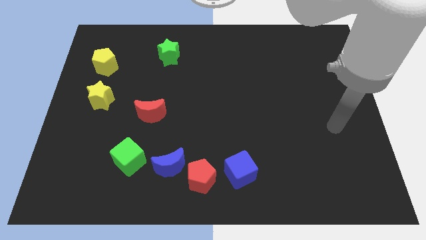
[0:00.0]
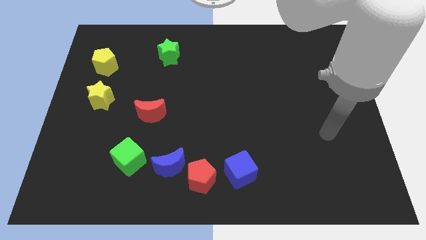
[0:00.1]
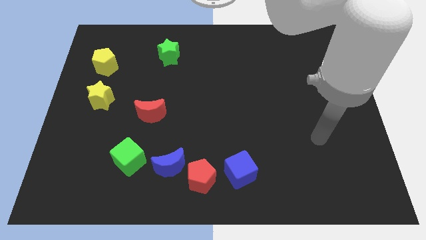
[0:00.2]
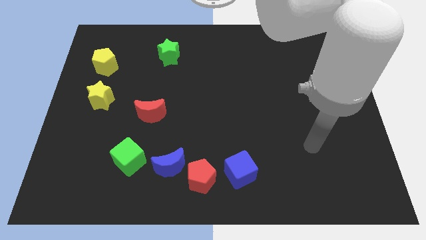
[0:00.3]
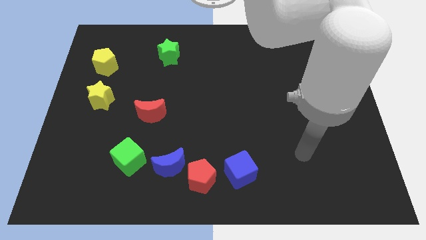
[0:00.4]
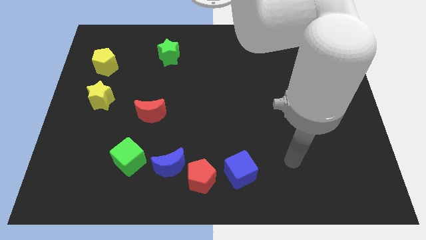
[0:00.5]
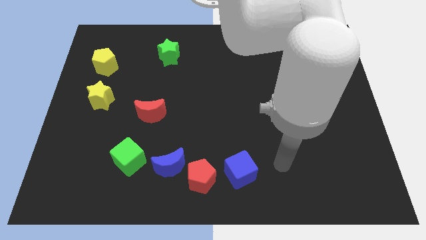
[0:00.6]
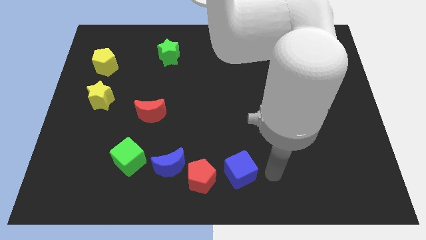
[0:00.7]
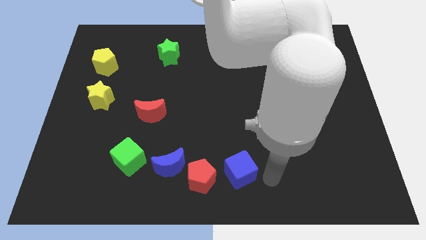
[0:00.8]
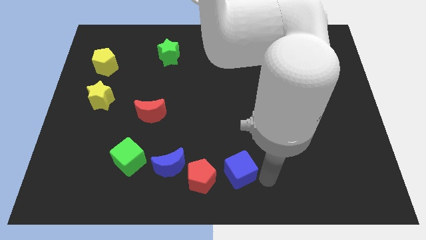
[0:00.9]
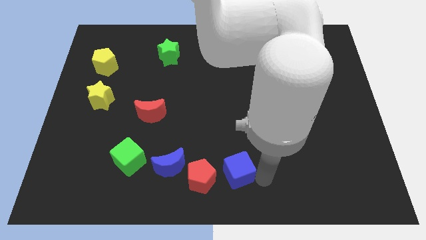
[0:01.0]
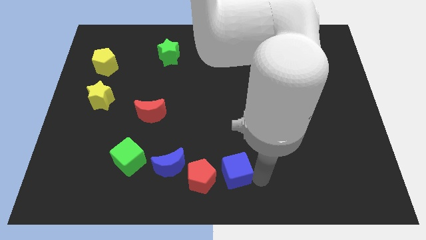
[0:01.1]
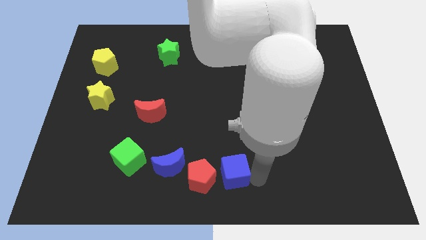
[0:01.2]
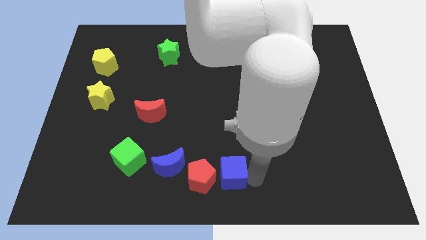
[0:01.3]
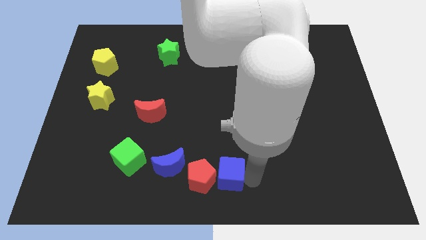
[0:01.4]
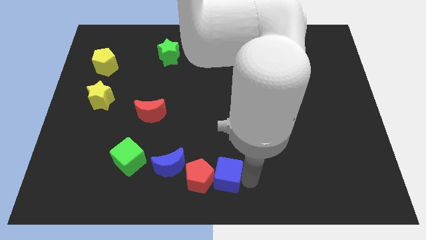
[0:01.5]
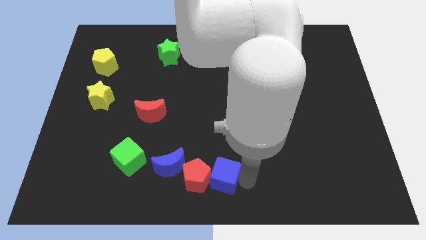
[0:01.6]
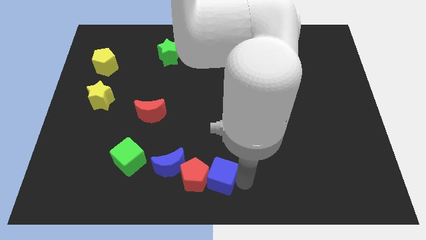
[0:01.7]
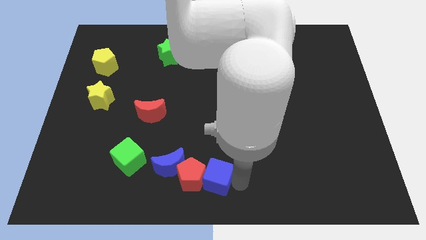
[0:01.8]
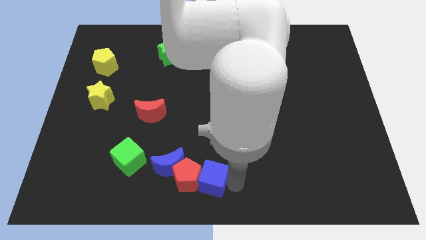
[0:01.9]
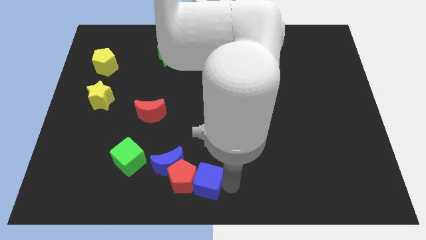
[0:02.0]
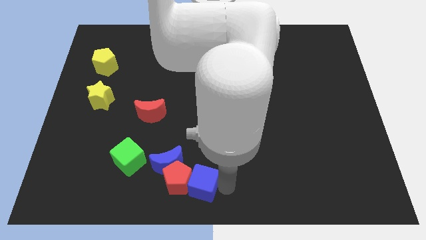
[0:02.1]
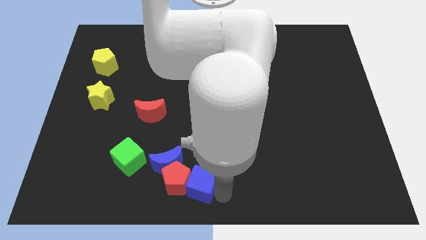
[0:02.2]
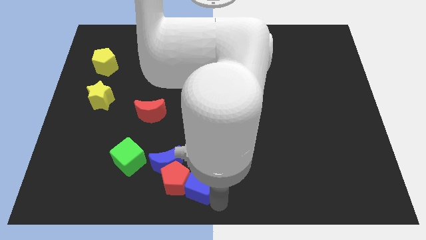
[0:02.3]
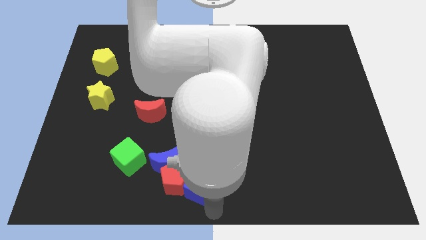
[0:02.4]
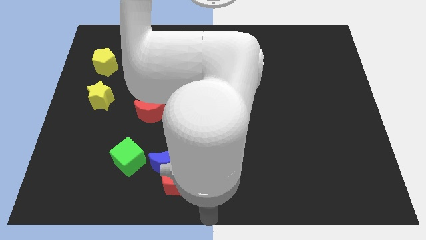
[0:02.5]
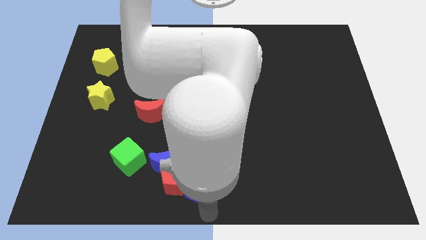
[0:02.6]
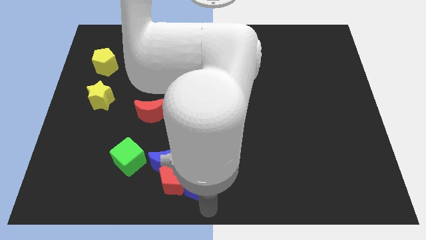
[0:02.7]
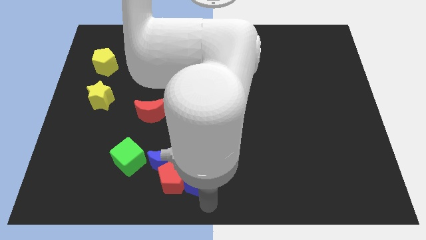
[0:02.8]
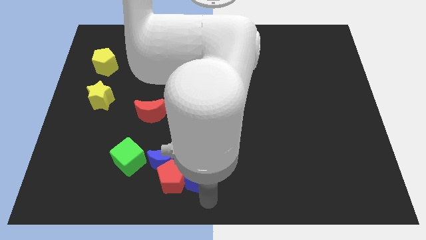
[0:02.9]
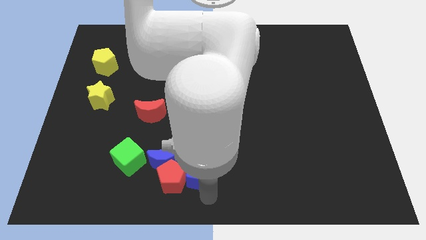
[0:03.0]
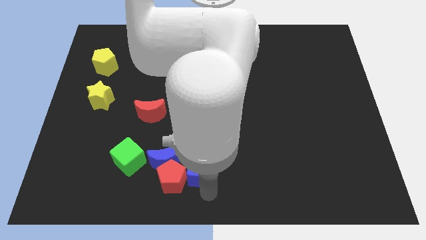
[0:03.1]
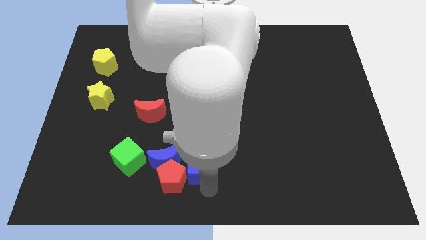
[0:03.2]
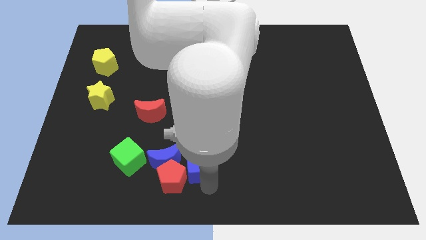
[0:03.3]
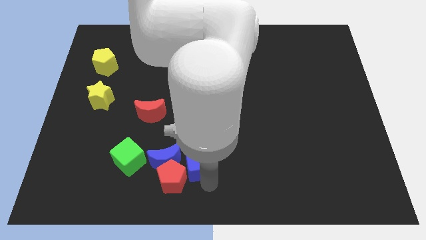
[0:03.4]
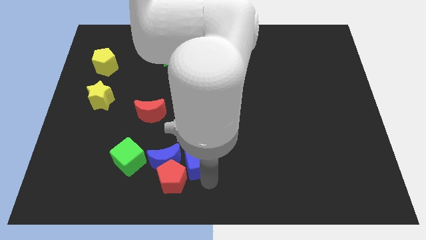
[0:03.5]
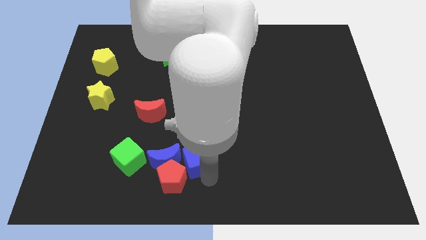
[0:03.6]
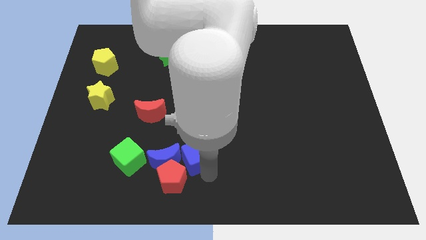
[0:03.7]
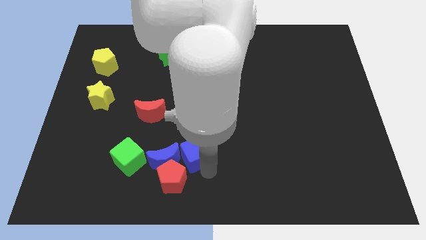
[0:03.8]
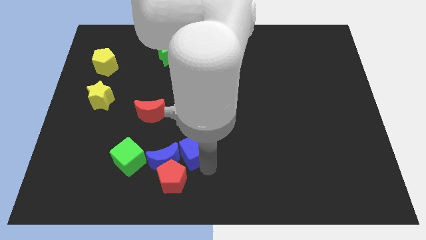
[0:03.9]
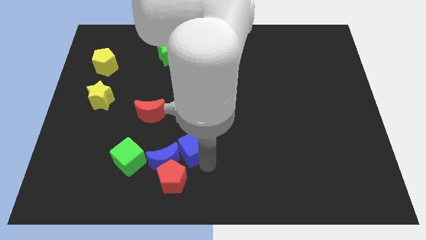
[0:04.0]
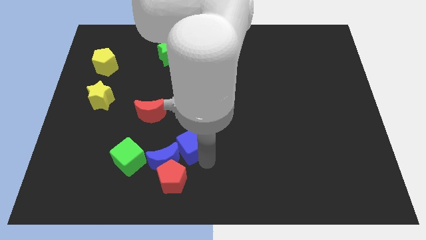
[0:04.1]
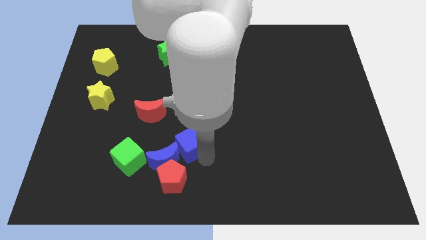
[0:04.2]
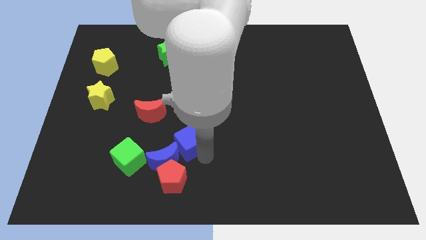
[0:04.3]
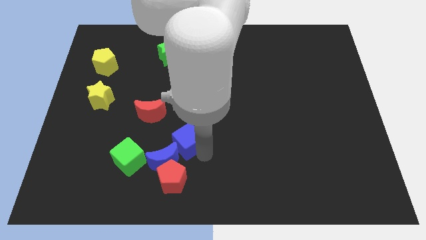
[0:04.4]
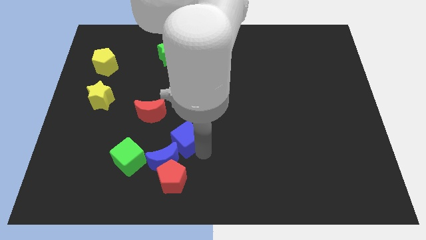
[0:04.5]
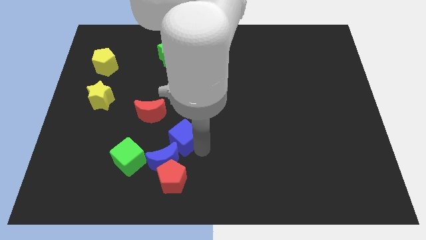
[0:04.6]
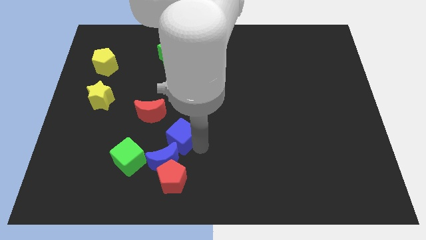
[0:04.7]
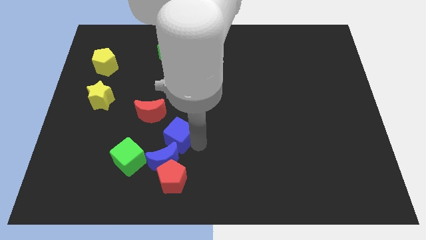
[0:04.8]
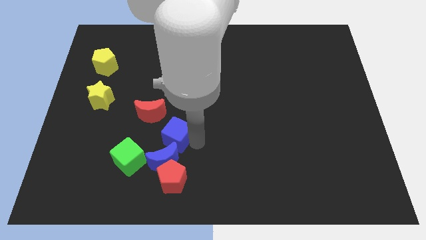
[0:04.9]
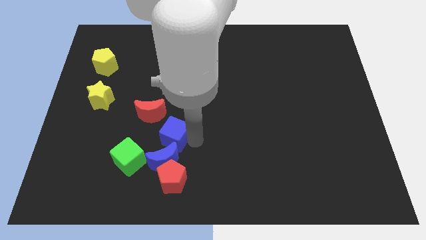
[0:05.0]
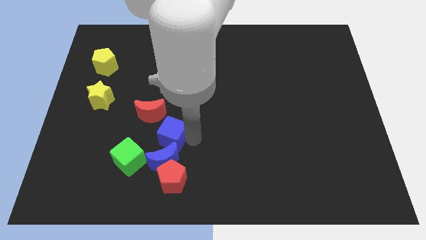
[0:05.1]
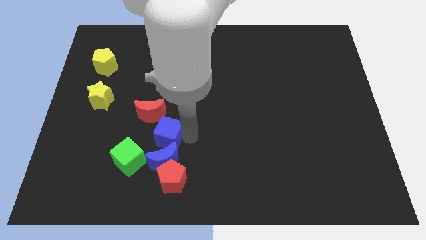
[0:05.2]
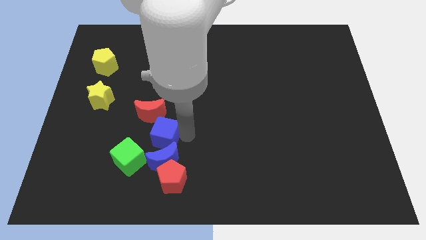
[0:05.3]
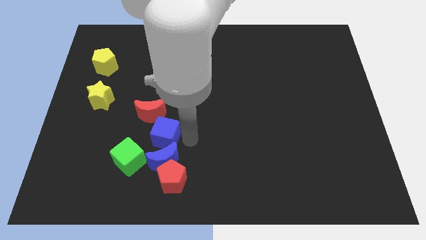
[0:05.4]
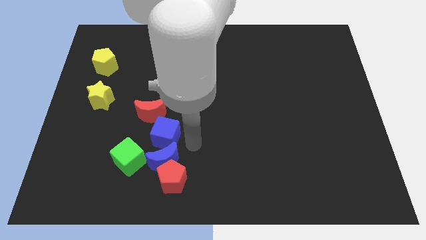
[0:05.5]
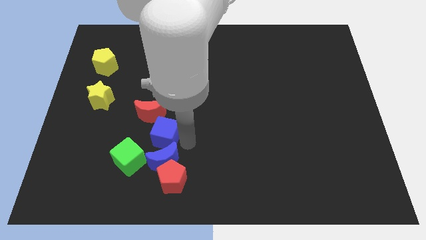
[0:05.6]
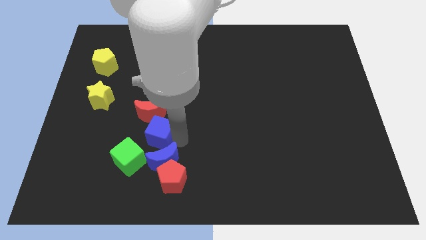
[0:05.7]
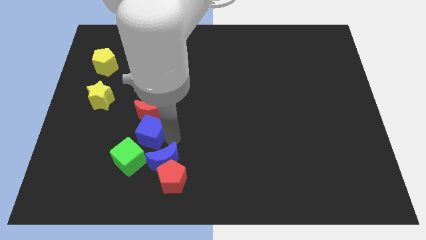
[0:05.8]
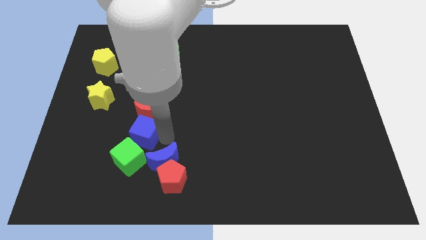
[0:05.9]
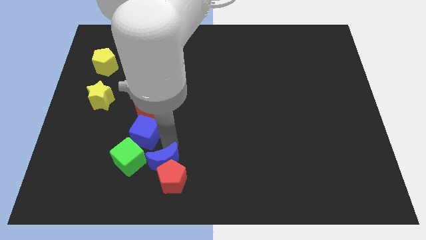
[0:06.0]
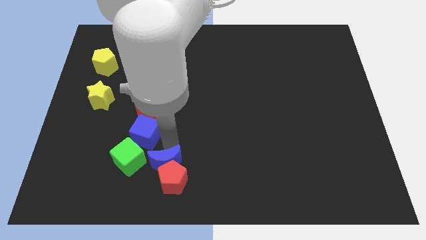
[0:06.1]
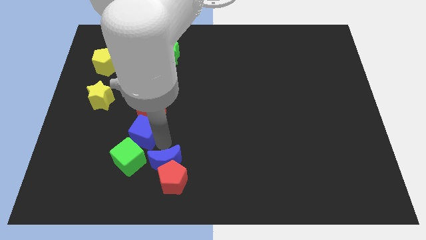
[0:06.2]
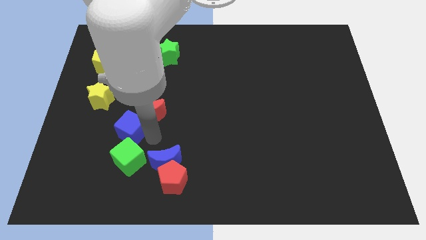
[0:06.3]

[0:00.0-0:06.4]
put the blue cube just left of the red moon

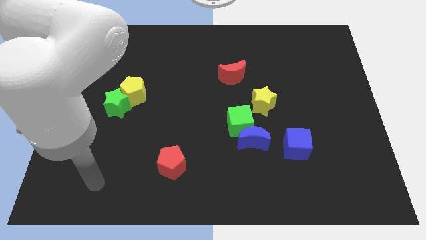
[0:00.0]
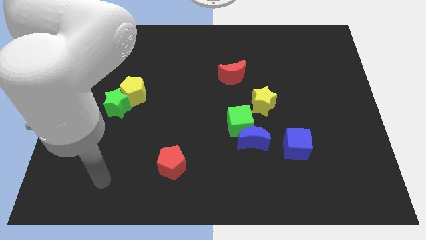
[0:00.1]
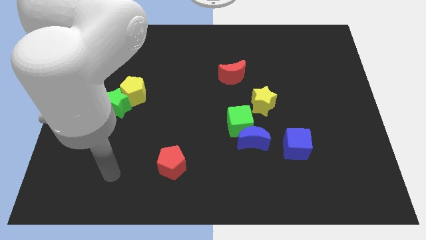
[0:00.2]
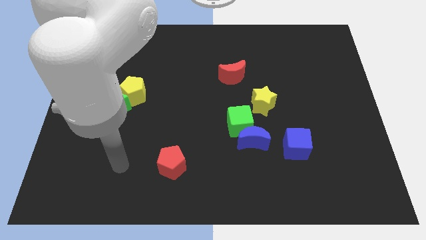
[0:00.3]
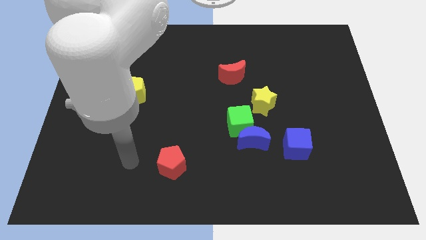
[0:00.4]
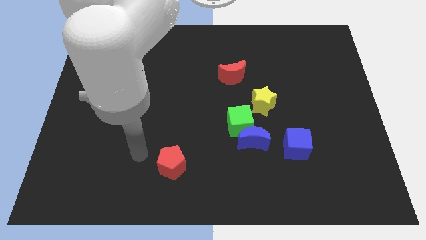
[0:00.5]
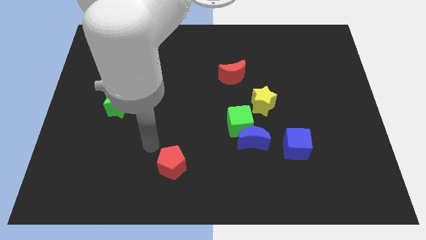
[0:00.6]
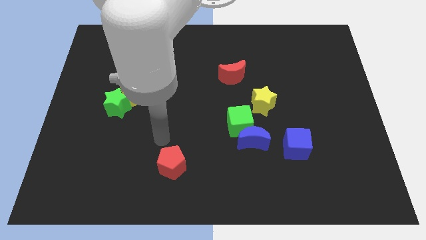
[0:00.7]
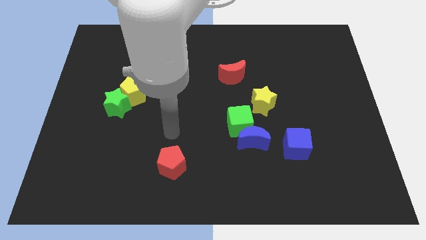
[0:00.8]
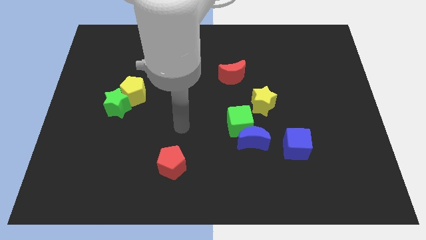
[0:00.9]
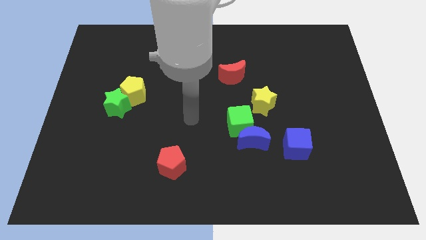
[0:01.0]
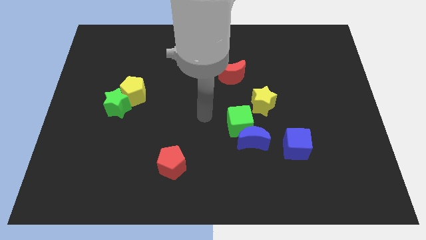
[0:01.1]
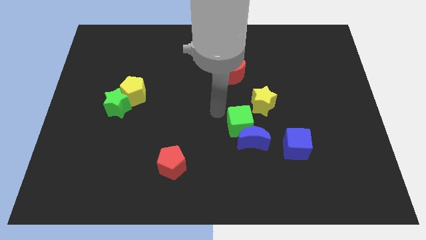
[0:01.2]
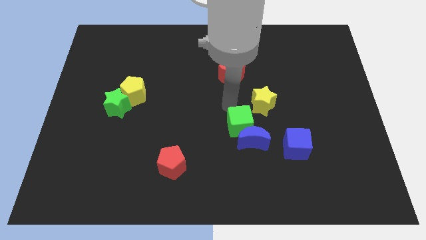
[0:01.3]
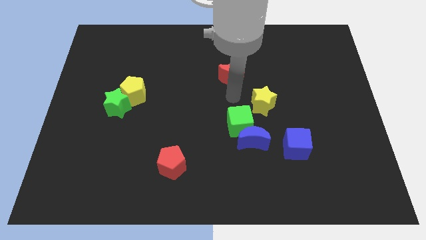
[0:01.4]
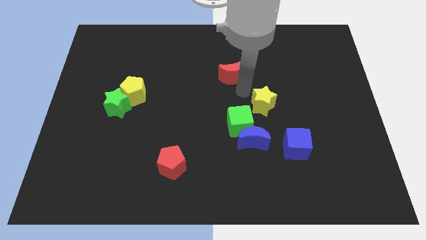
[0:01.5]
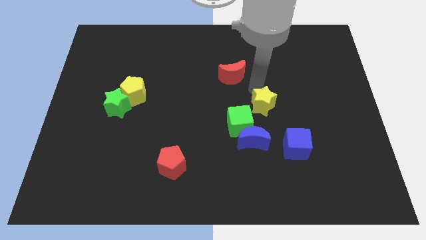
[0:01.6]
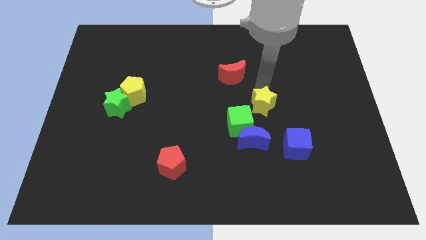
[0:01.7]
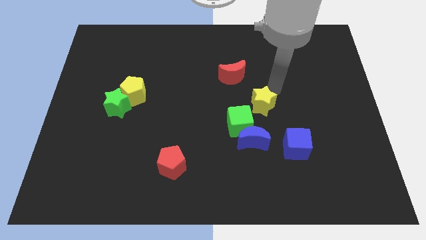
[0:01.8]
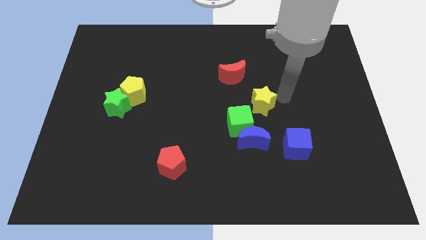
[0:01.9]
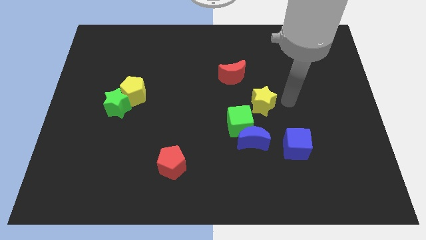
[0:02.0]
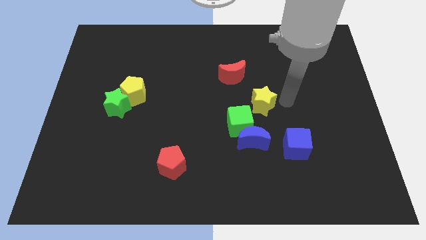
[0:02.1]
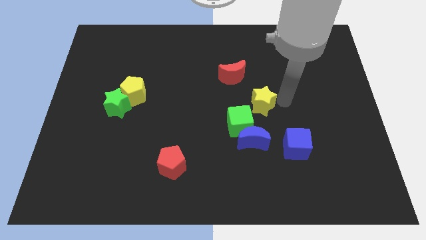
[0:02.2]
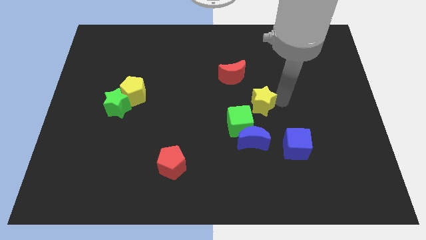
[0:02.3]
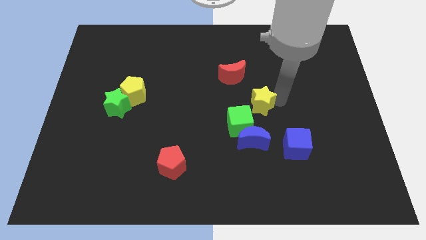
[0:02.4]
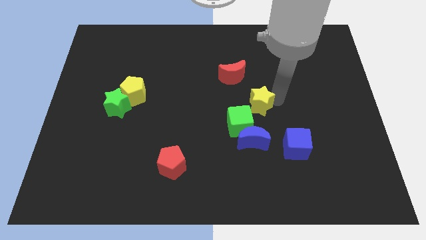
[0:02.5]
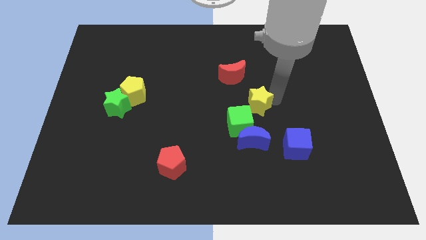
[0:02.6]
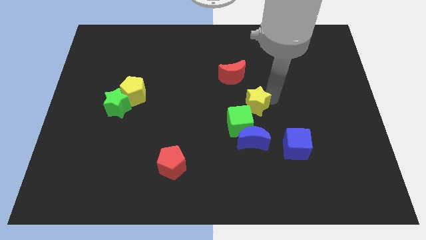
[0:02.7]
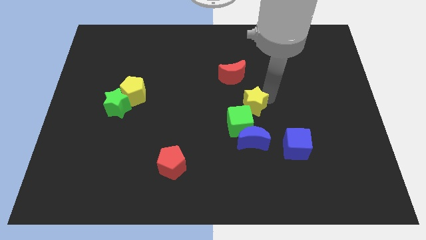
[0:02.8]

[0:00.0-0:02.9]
slide the yellow star to the bottom of the red moon
